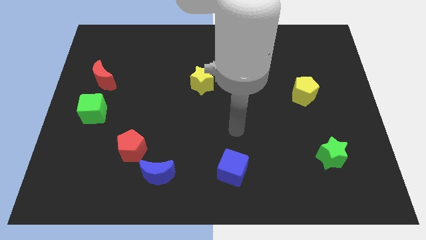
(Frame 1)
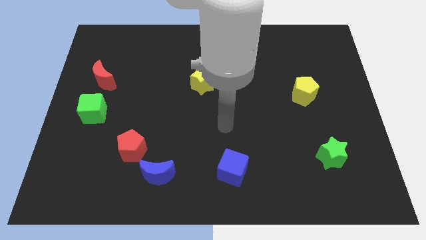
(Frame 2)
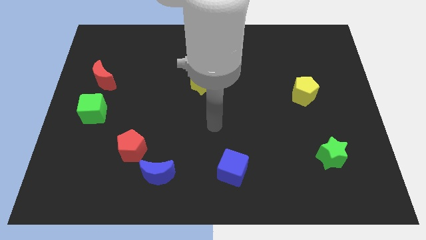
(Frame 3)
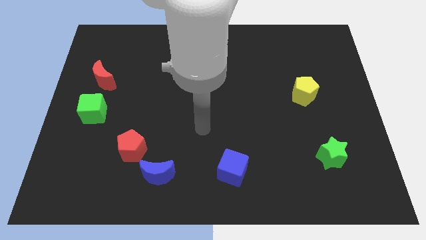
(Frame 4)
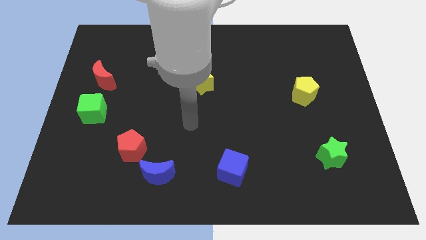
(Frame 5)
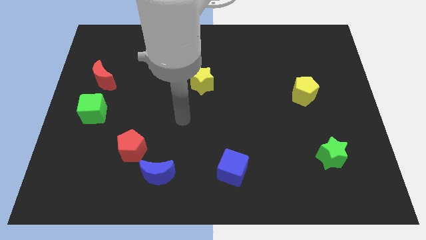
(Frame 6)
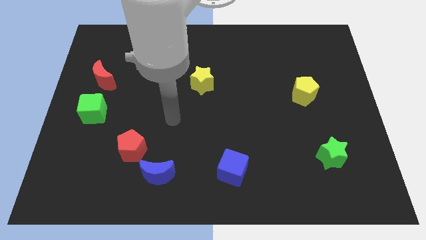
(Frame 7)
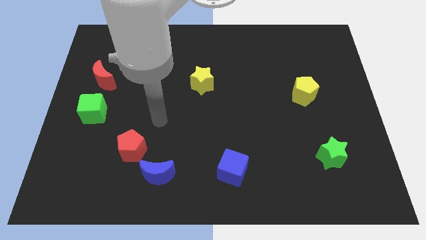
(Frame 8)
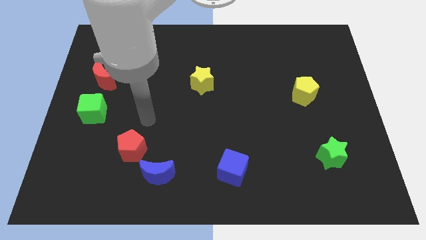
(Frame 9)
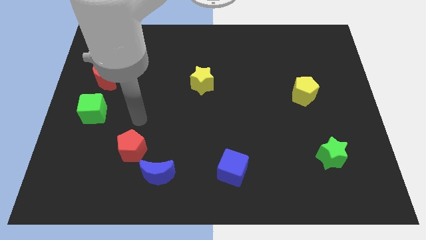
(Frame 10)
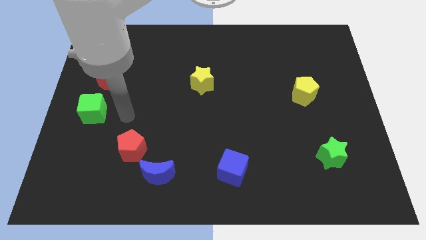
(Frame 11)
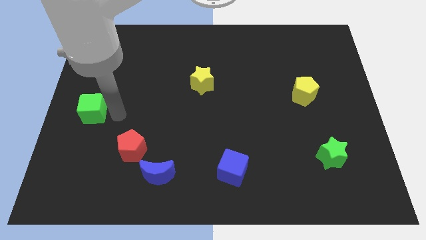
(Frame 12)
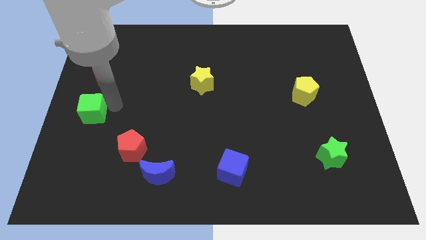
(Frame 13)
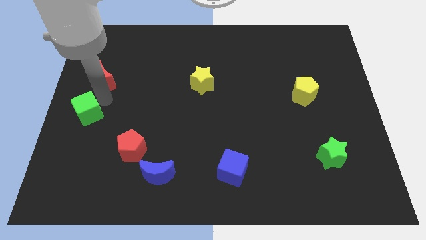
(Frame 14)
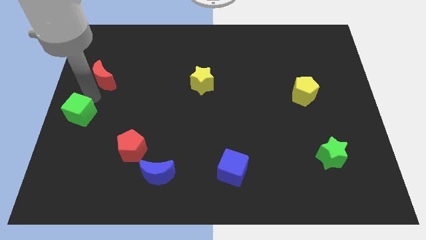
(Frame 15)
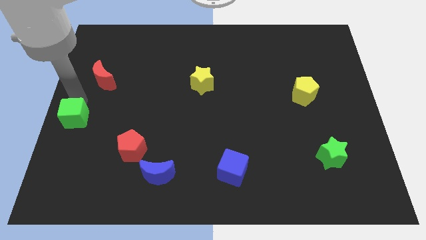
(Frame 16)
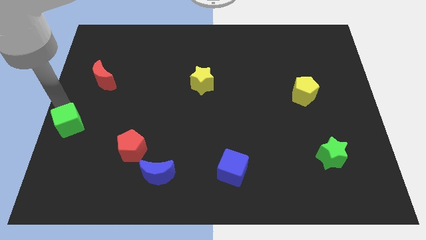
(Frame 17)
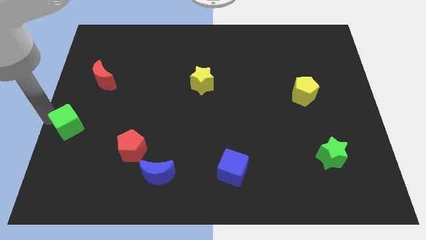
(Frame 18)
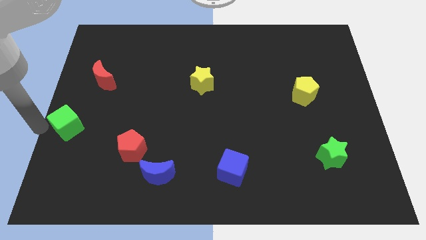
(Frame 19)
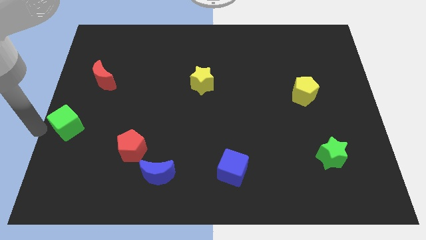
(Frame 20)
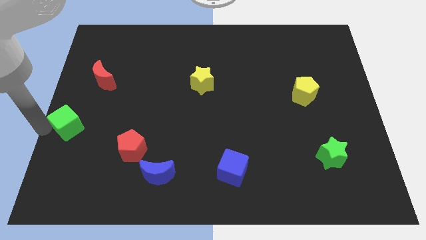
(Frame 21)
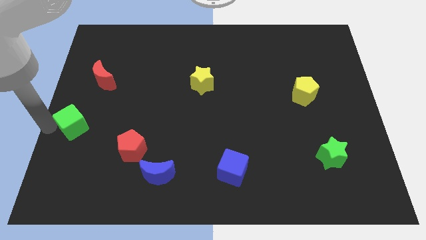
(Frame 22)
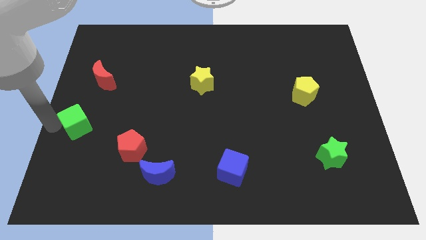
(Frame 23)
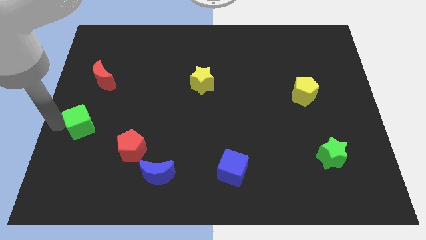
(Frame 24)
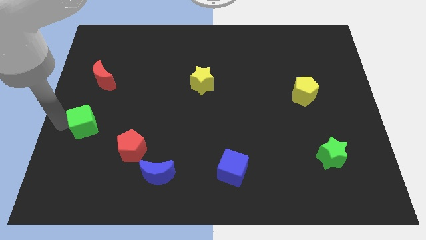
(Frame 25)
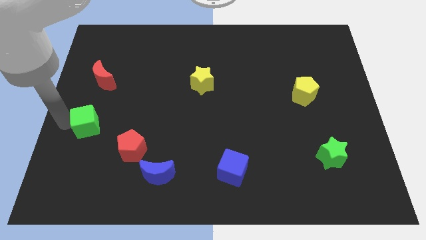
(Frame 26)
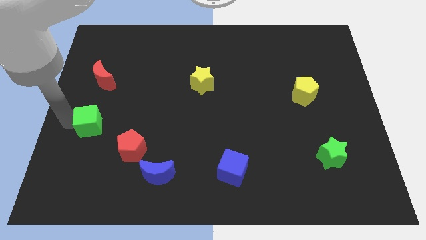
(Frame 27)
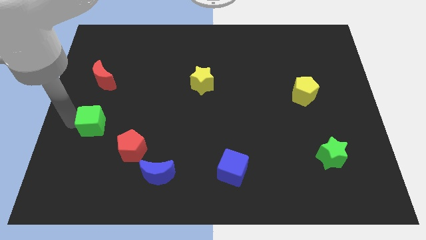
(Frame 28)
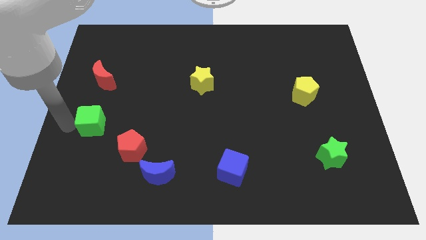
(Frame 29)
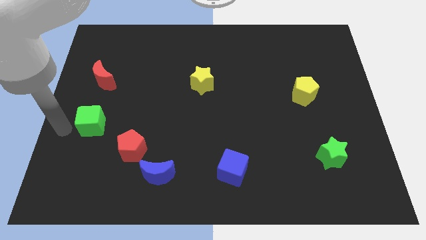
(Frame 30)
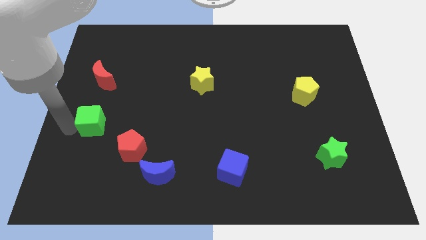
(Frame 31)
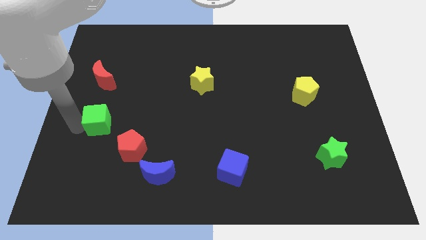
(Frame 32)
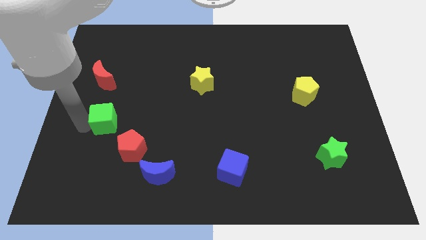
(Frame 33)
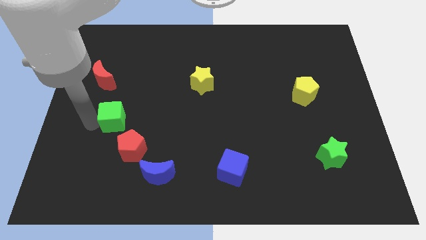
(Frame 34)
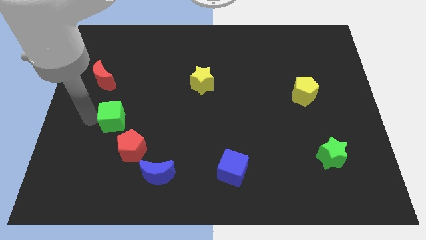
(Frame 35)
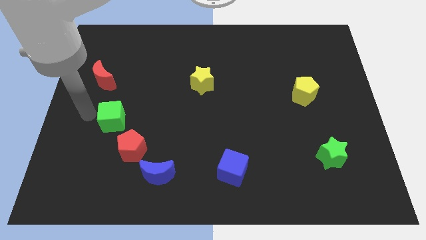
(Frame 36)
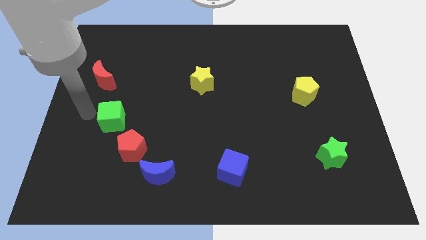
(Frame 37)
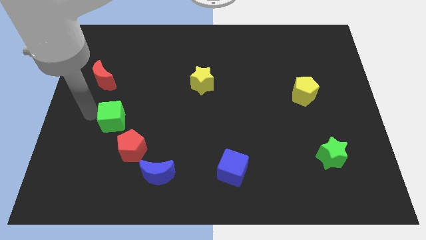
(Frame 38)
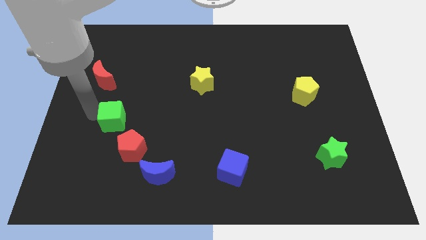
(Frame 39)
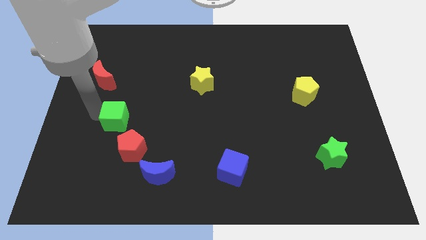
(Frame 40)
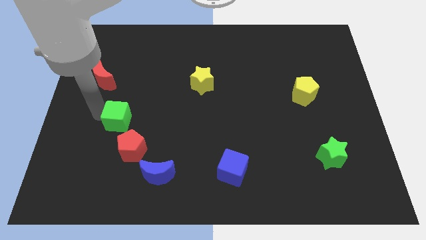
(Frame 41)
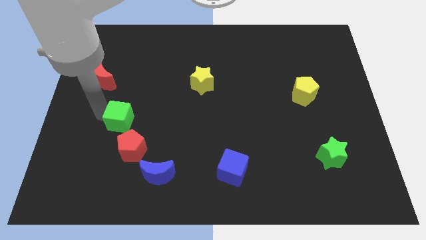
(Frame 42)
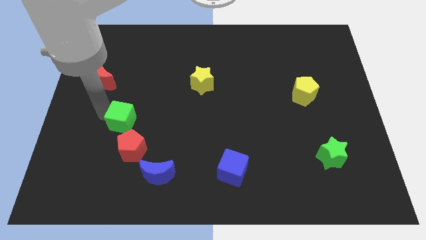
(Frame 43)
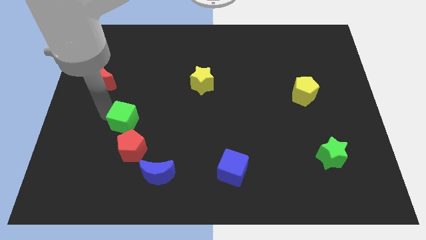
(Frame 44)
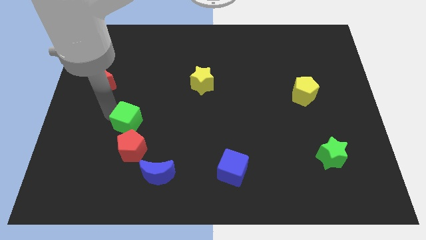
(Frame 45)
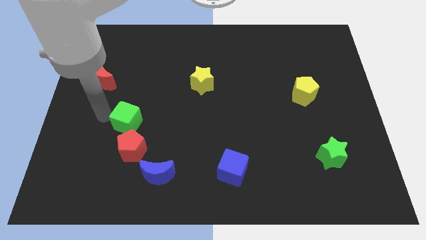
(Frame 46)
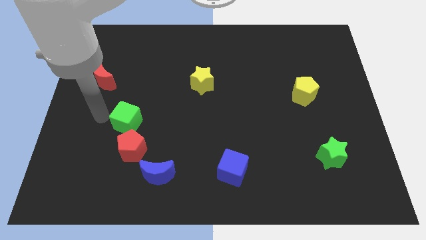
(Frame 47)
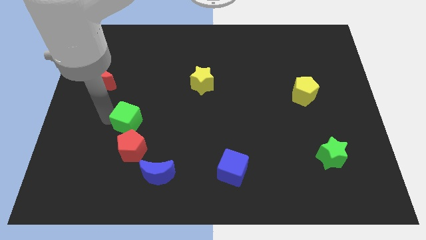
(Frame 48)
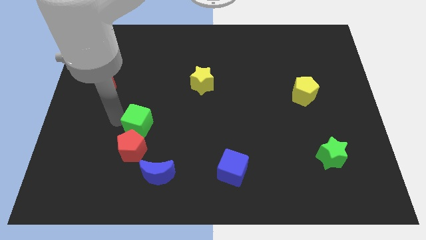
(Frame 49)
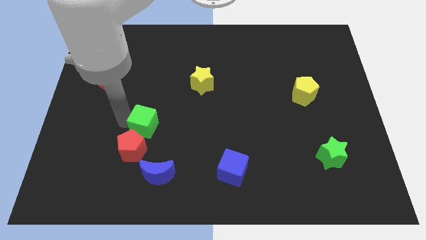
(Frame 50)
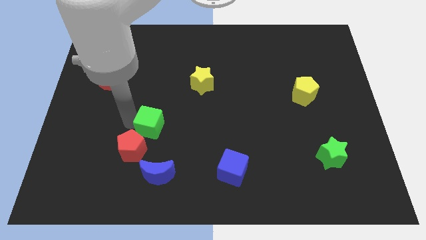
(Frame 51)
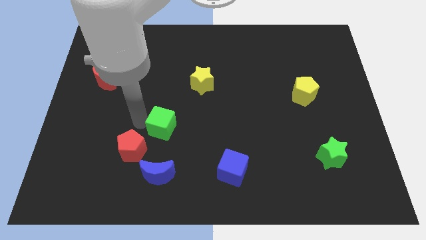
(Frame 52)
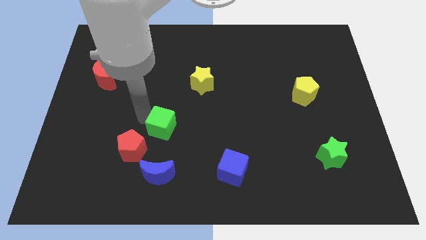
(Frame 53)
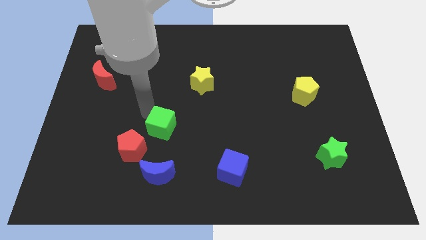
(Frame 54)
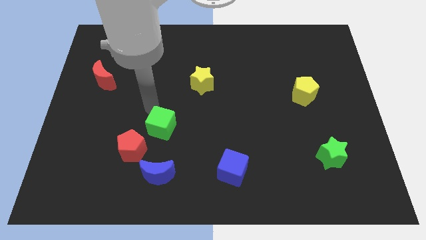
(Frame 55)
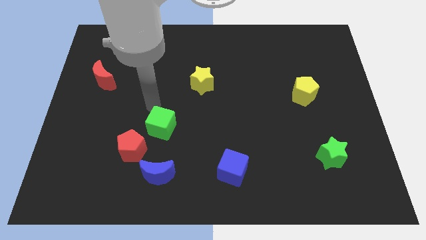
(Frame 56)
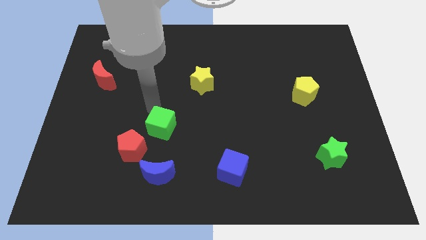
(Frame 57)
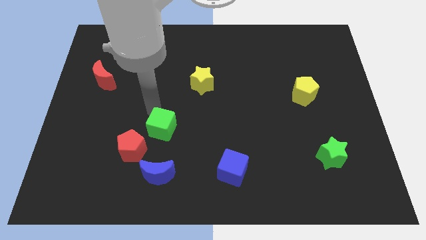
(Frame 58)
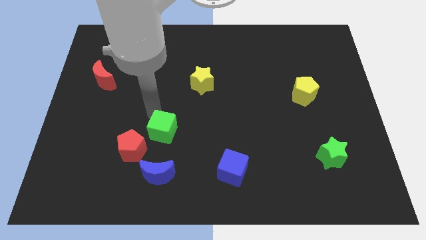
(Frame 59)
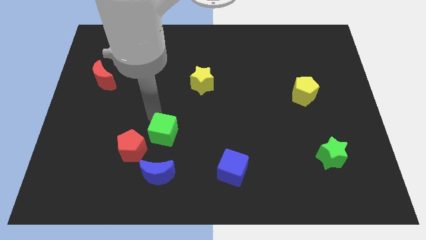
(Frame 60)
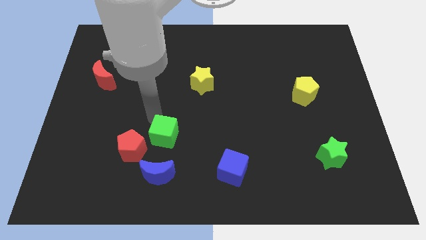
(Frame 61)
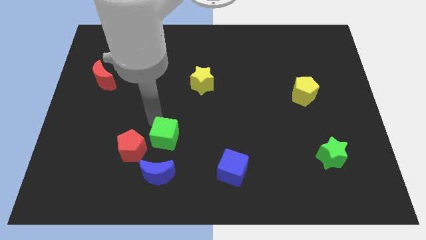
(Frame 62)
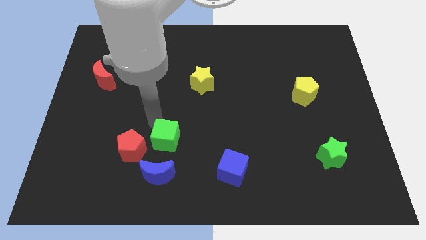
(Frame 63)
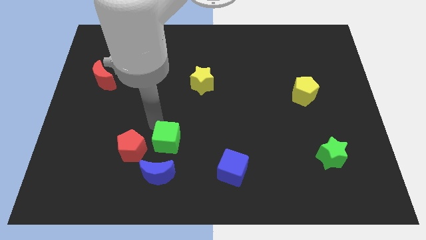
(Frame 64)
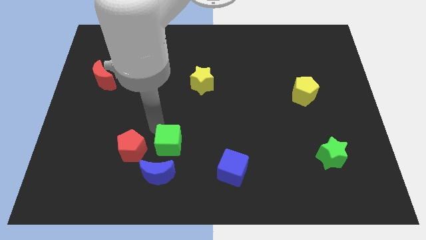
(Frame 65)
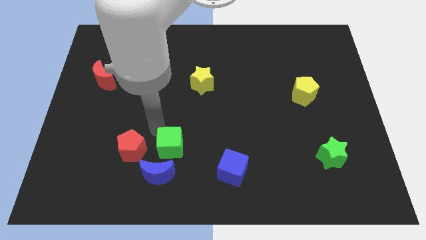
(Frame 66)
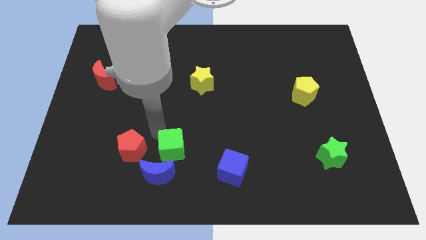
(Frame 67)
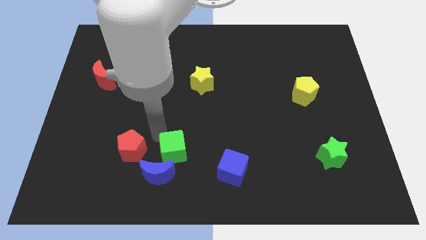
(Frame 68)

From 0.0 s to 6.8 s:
move the green cube to the left side of the blue cube
